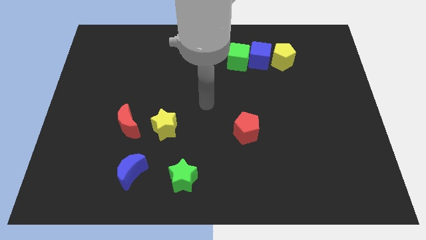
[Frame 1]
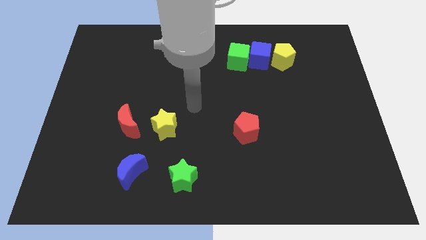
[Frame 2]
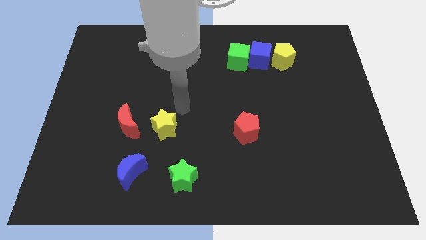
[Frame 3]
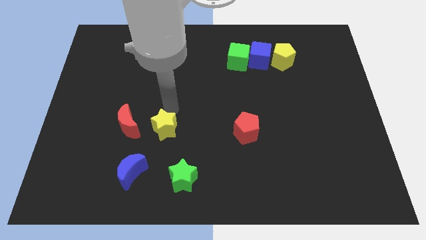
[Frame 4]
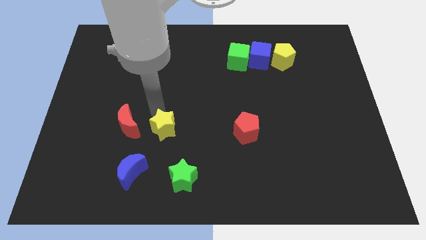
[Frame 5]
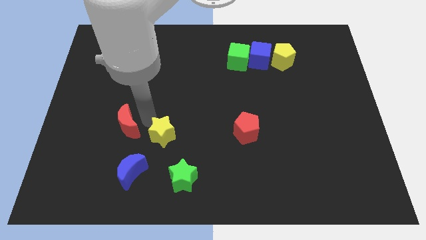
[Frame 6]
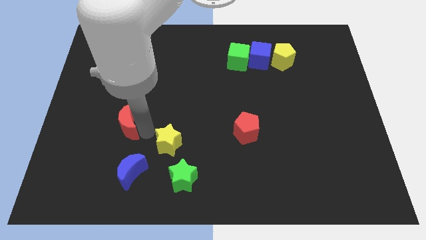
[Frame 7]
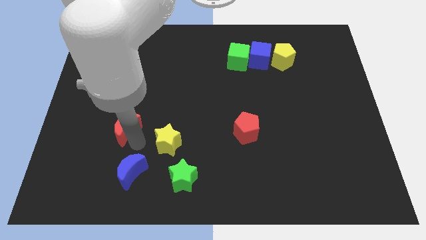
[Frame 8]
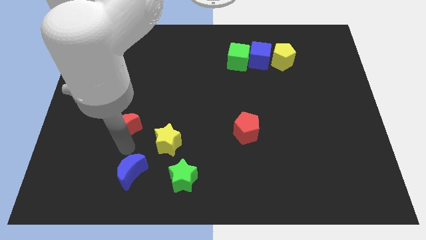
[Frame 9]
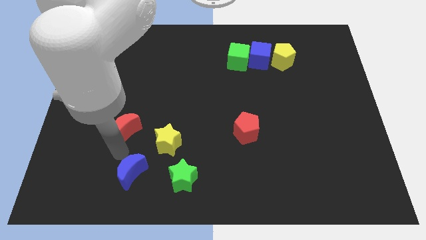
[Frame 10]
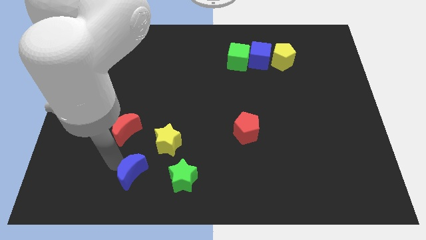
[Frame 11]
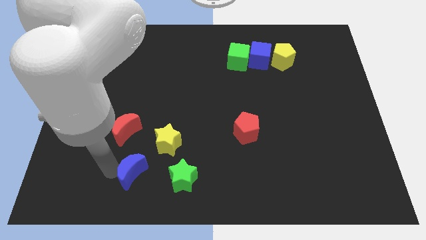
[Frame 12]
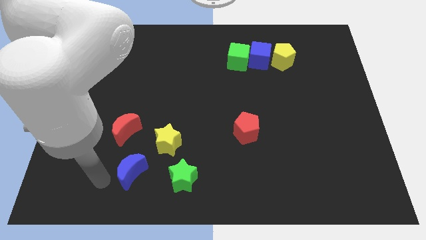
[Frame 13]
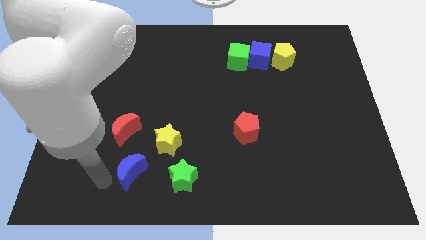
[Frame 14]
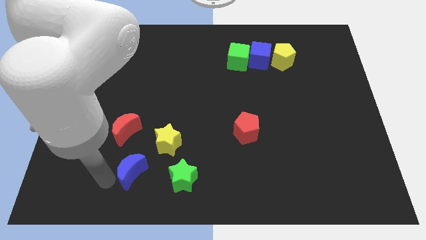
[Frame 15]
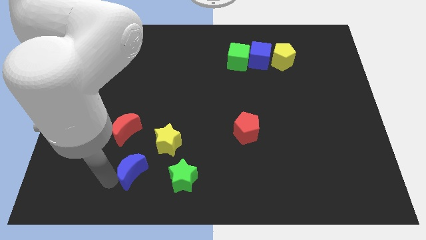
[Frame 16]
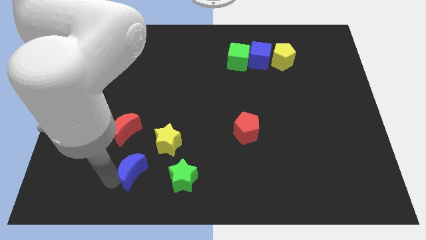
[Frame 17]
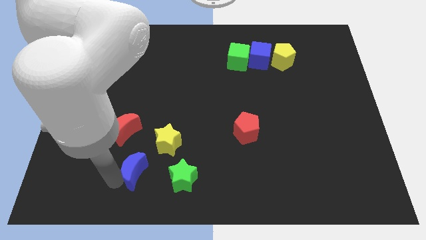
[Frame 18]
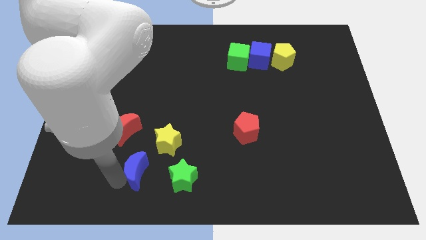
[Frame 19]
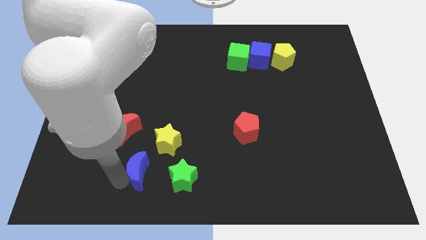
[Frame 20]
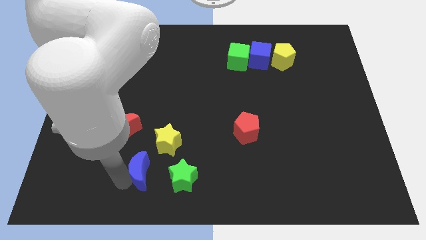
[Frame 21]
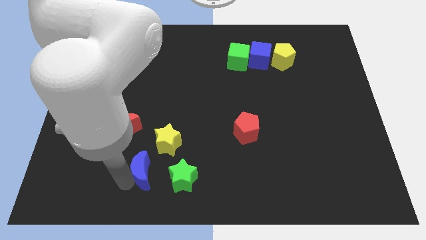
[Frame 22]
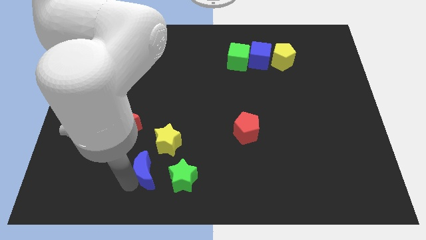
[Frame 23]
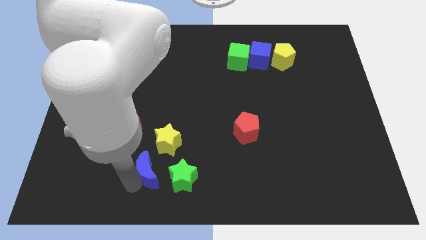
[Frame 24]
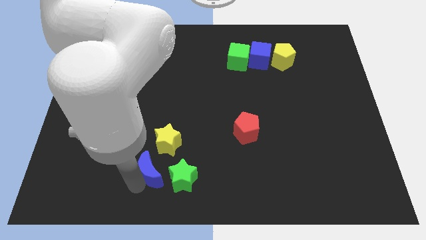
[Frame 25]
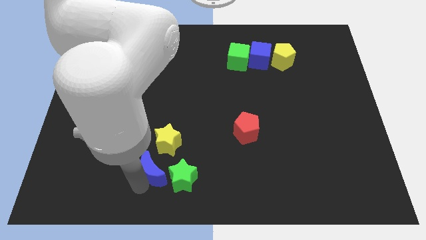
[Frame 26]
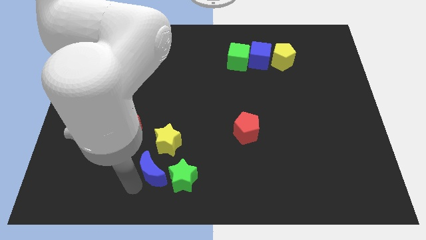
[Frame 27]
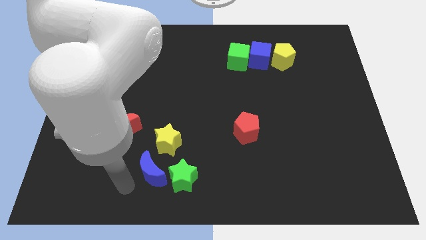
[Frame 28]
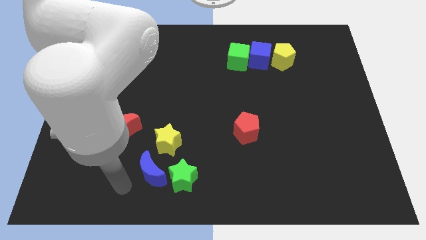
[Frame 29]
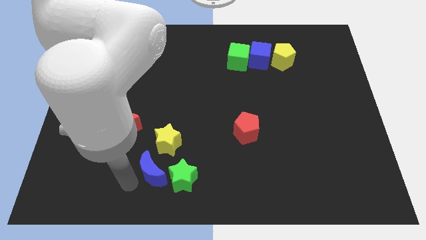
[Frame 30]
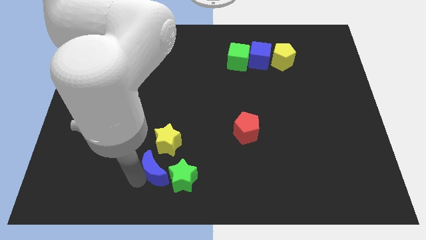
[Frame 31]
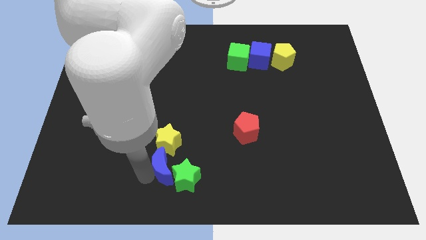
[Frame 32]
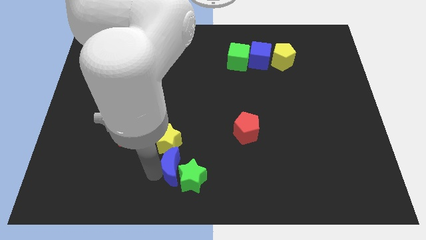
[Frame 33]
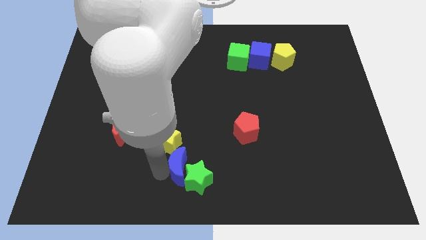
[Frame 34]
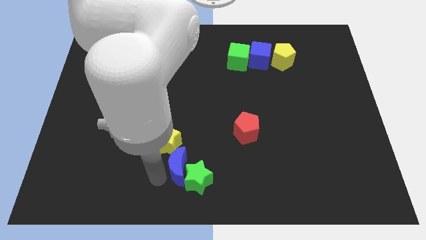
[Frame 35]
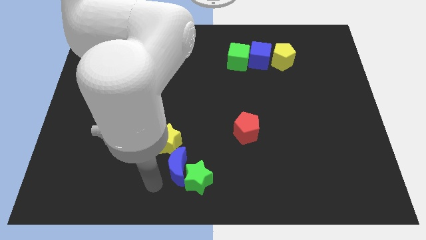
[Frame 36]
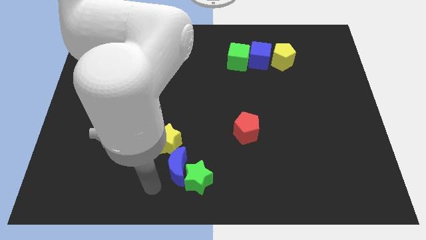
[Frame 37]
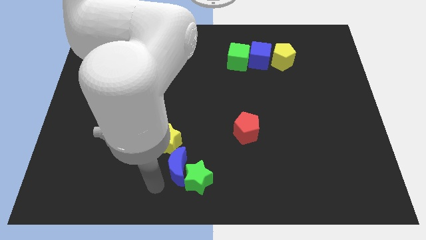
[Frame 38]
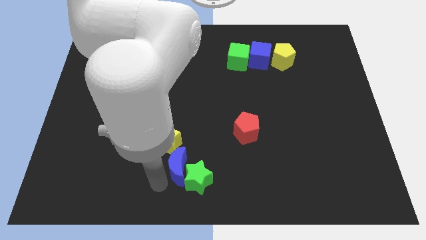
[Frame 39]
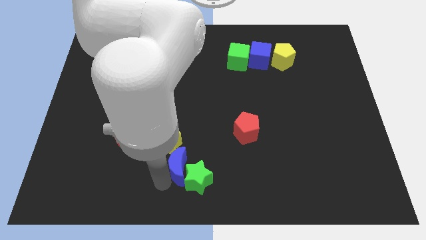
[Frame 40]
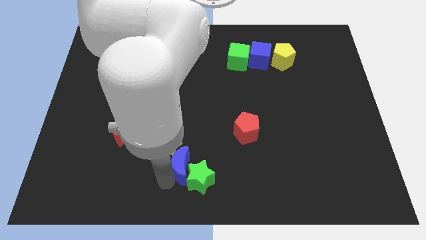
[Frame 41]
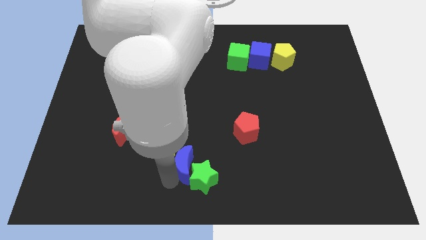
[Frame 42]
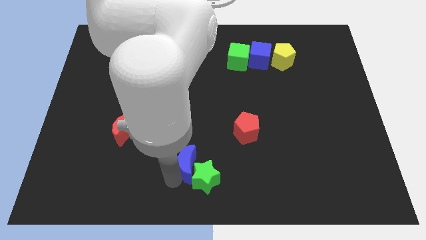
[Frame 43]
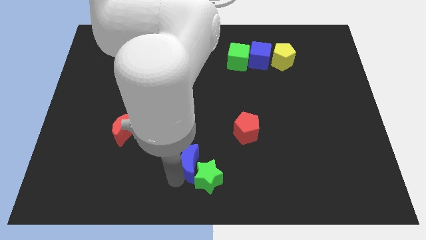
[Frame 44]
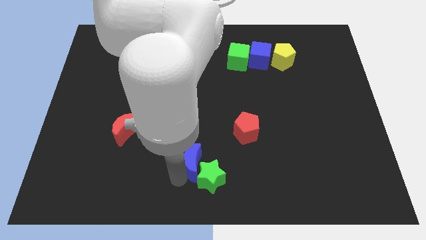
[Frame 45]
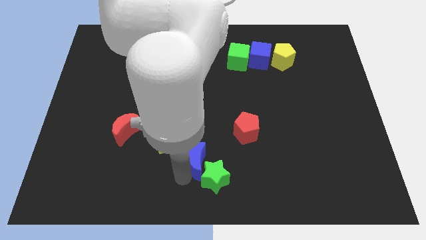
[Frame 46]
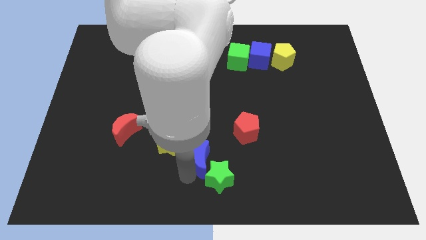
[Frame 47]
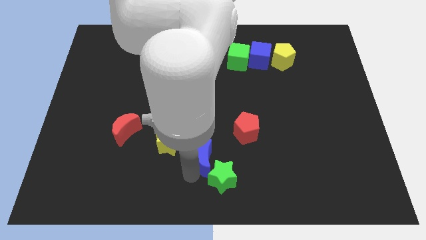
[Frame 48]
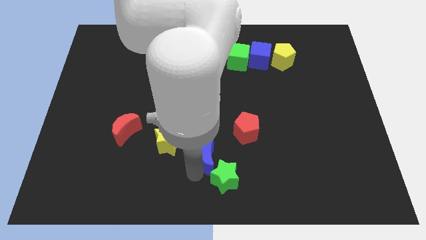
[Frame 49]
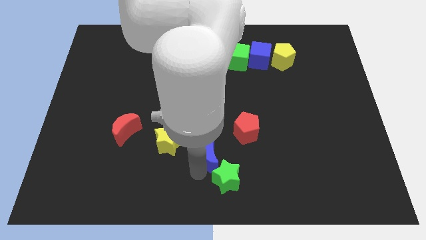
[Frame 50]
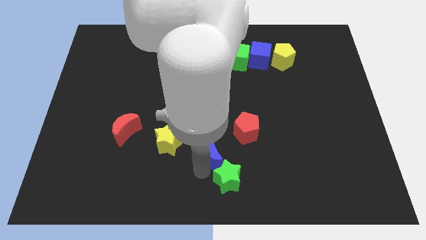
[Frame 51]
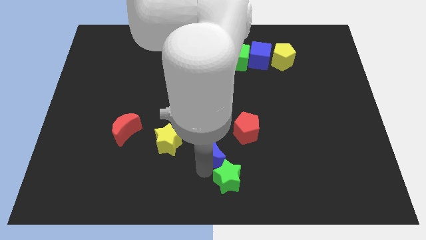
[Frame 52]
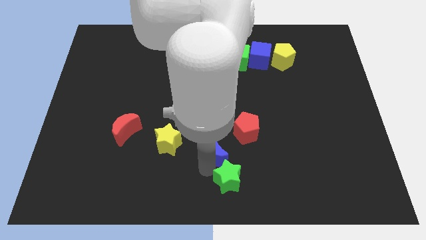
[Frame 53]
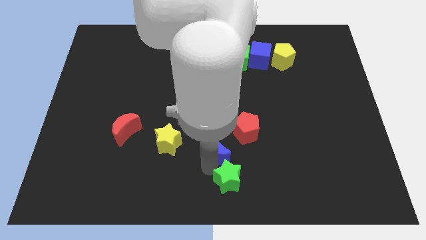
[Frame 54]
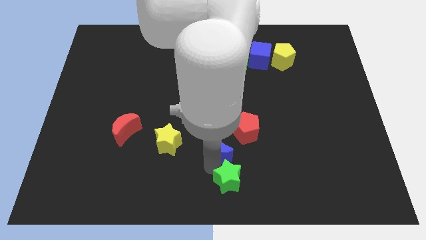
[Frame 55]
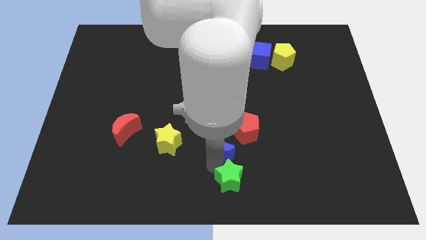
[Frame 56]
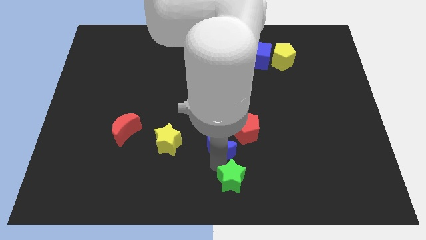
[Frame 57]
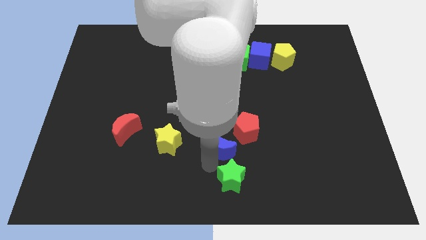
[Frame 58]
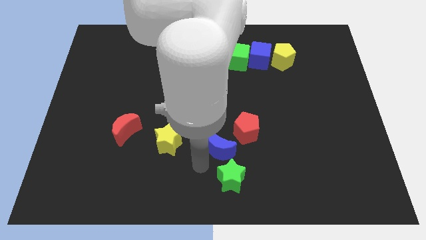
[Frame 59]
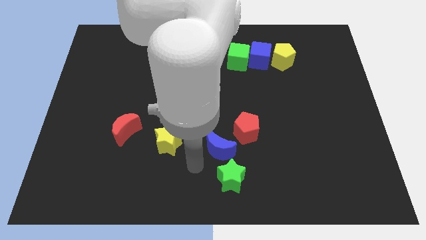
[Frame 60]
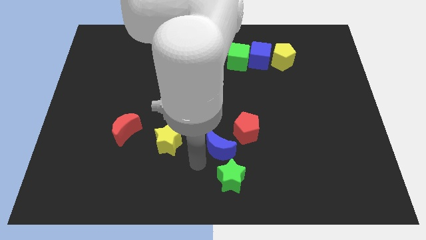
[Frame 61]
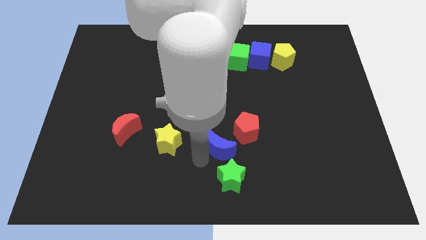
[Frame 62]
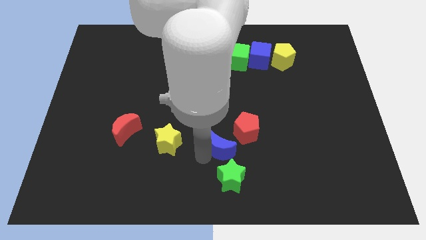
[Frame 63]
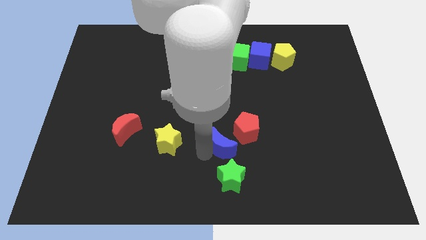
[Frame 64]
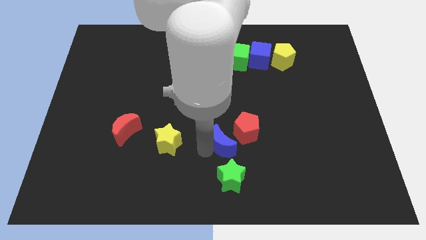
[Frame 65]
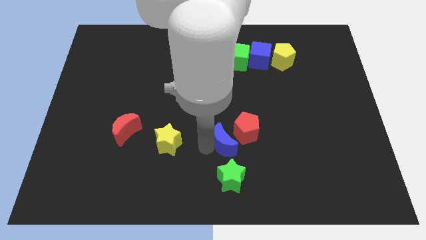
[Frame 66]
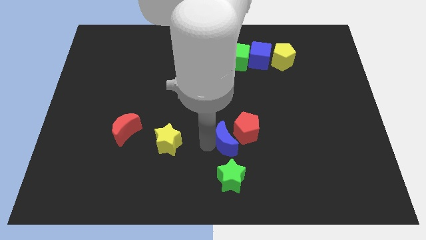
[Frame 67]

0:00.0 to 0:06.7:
slide the blue moon towards the red pentagon

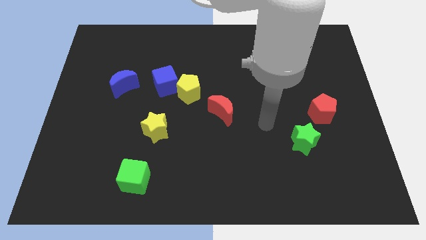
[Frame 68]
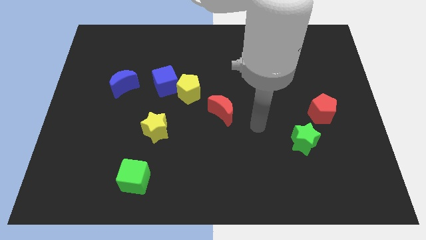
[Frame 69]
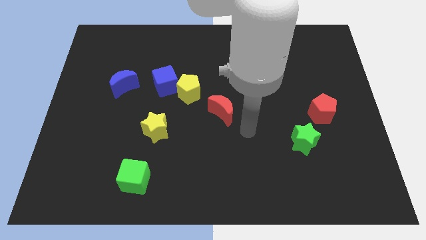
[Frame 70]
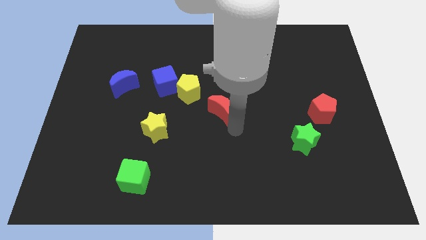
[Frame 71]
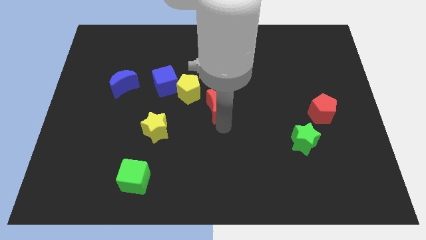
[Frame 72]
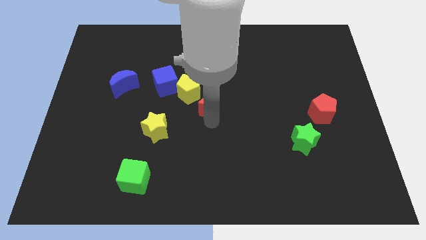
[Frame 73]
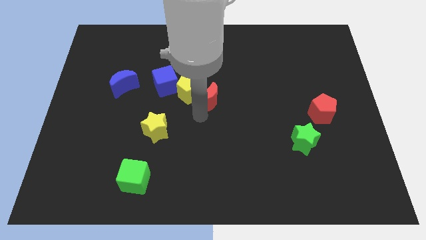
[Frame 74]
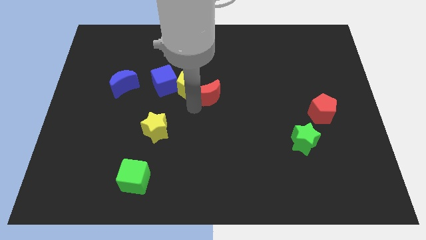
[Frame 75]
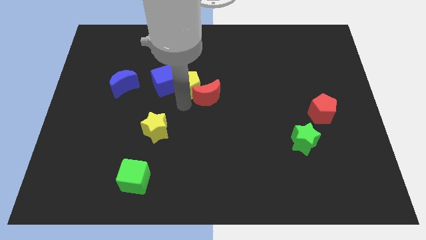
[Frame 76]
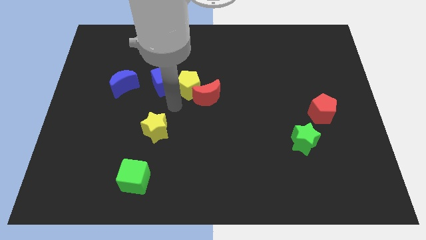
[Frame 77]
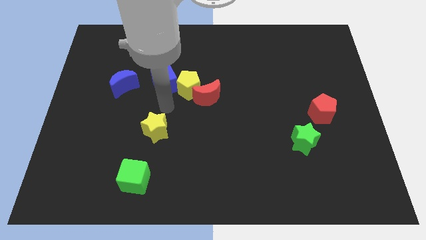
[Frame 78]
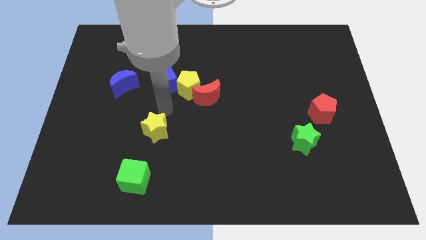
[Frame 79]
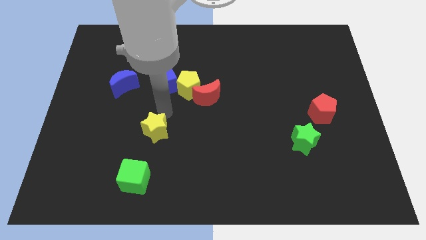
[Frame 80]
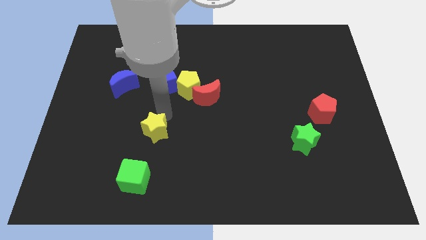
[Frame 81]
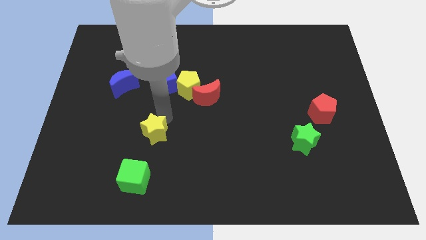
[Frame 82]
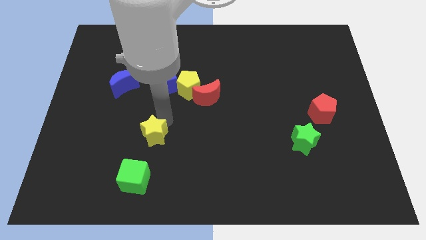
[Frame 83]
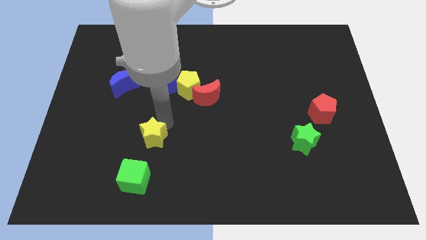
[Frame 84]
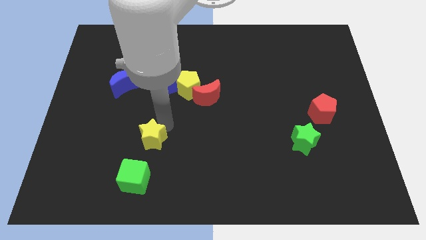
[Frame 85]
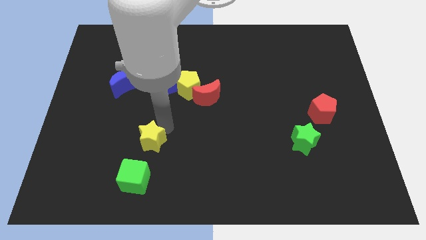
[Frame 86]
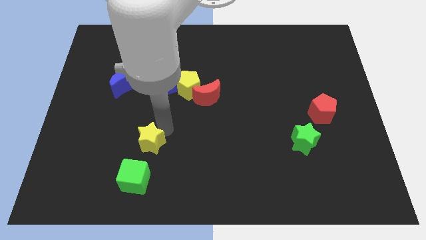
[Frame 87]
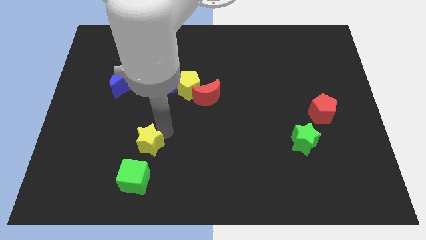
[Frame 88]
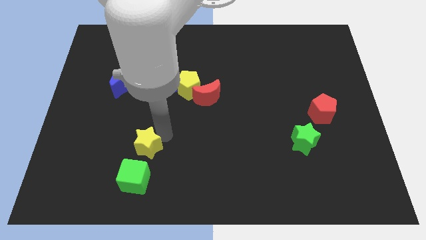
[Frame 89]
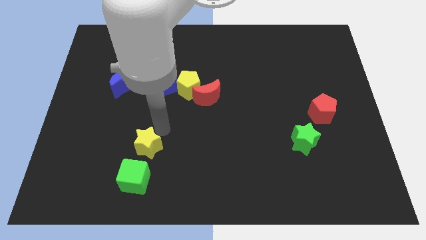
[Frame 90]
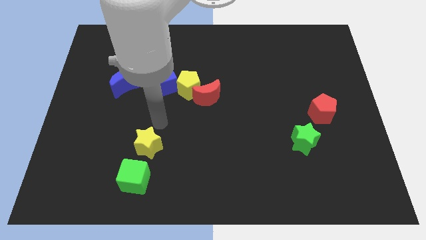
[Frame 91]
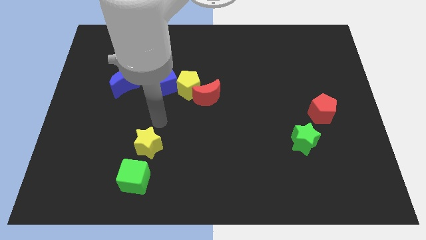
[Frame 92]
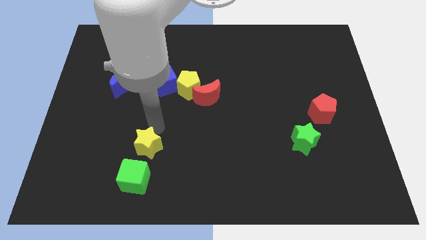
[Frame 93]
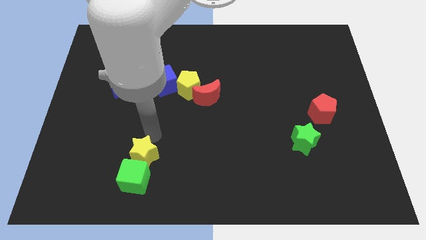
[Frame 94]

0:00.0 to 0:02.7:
move the yellow star towards the green cube
